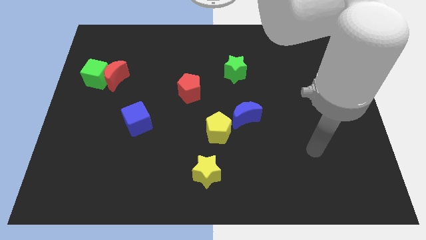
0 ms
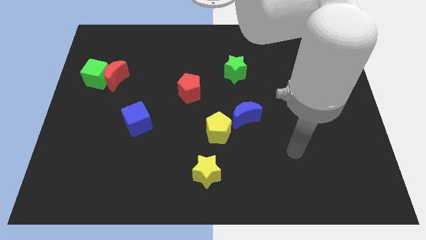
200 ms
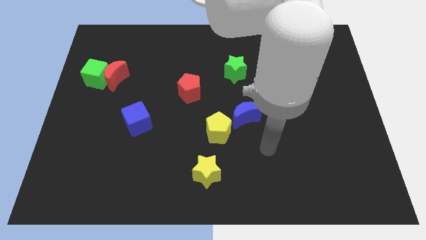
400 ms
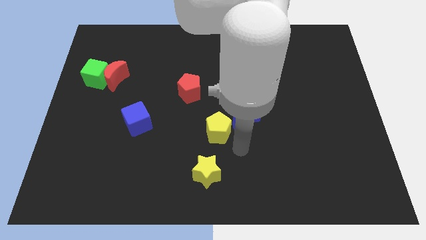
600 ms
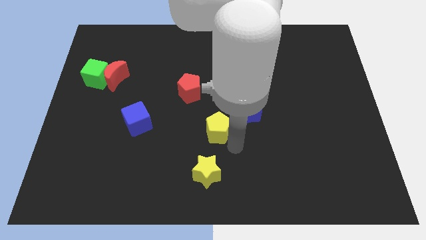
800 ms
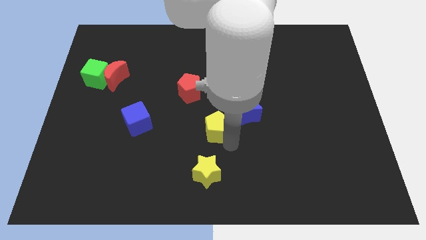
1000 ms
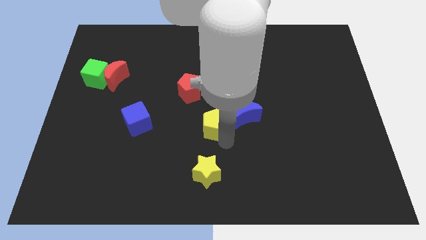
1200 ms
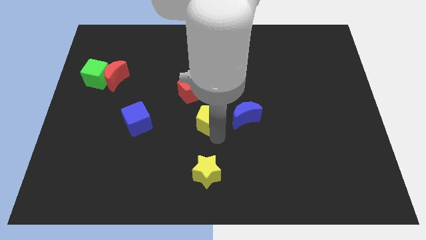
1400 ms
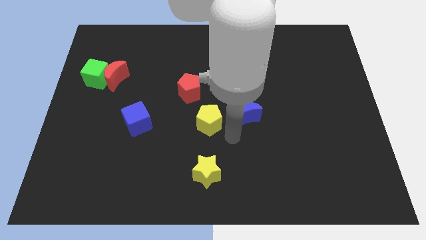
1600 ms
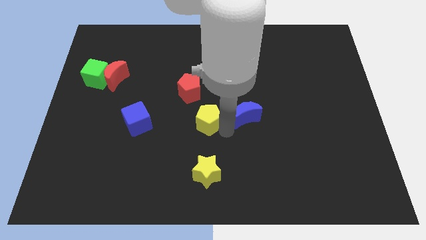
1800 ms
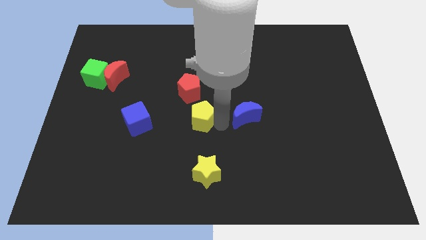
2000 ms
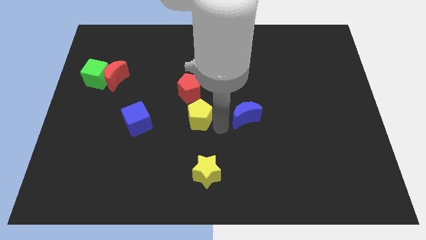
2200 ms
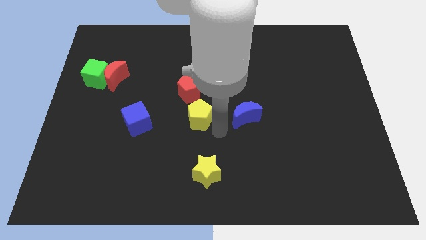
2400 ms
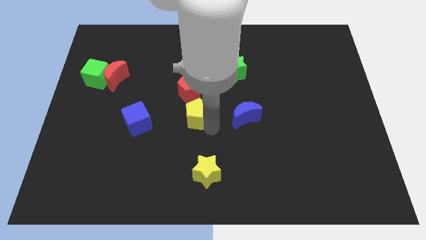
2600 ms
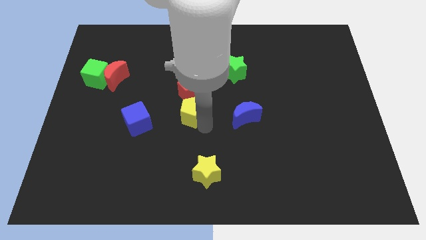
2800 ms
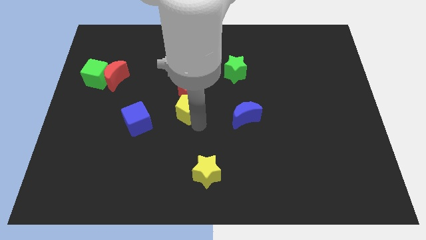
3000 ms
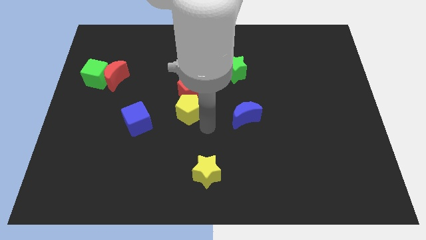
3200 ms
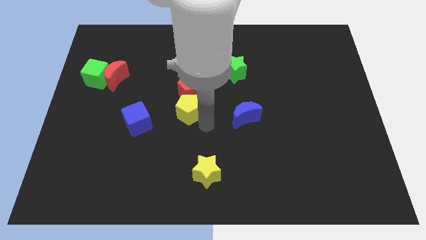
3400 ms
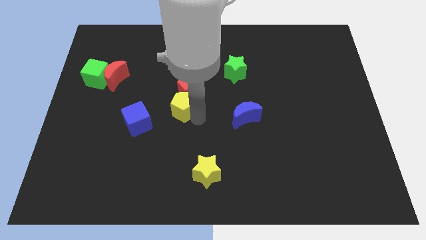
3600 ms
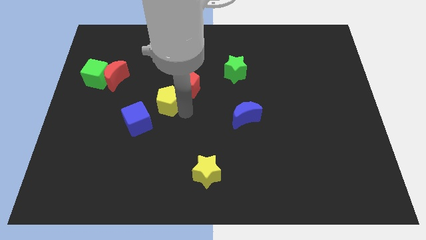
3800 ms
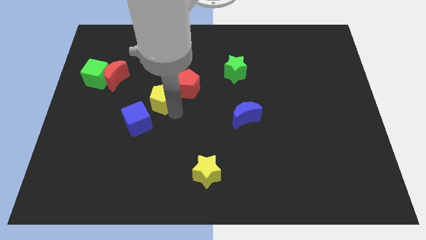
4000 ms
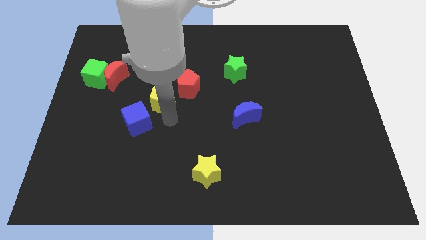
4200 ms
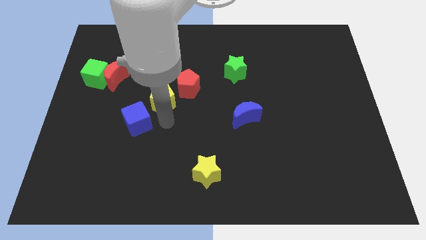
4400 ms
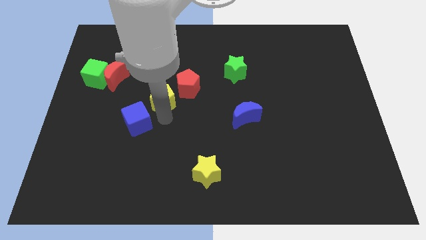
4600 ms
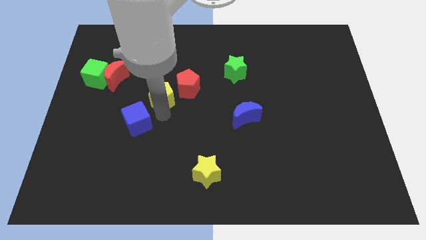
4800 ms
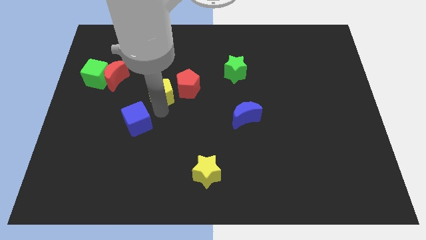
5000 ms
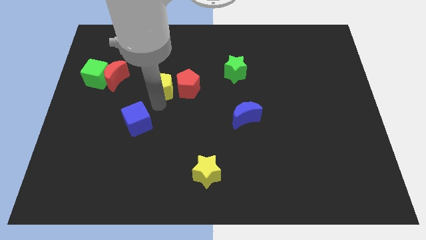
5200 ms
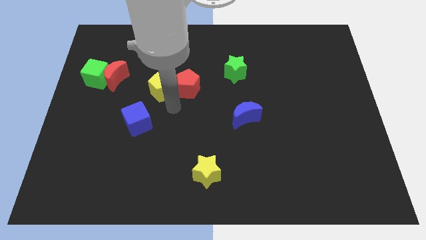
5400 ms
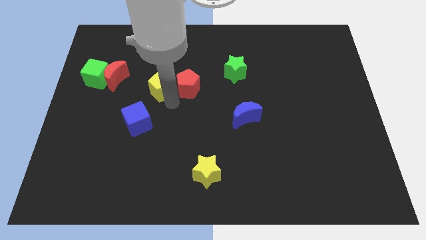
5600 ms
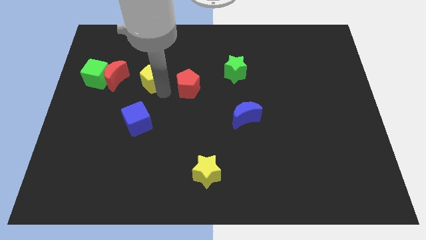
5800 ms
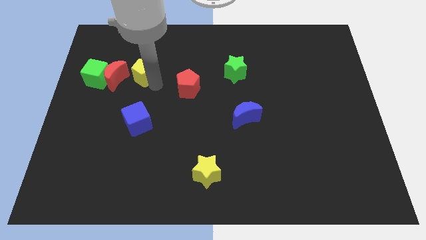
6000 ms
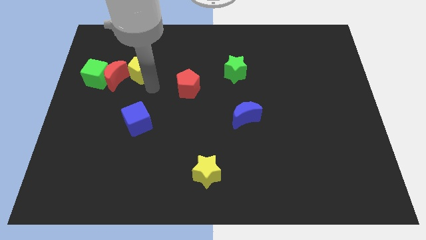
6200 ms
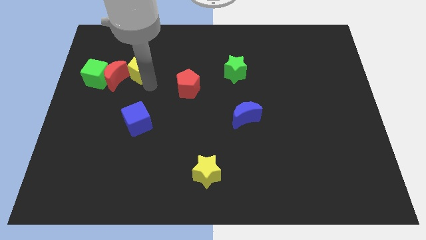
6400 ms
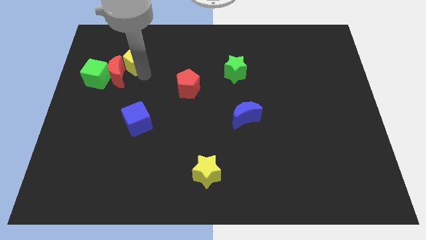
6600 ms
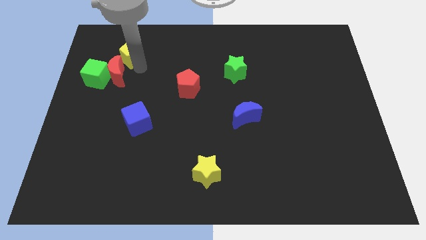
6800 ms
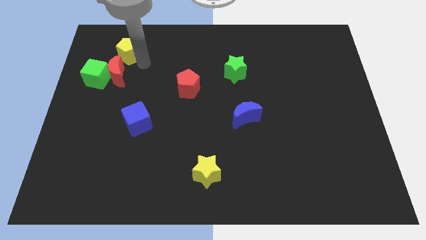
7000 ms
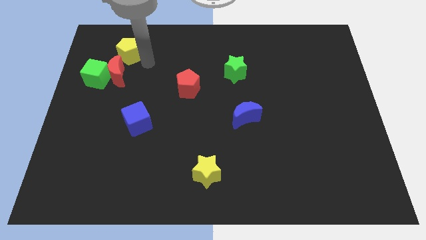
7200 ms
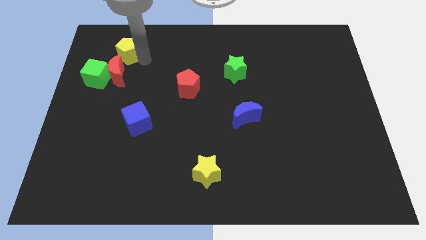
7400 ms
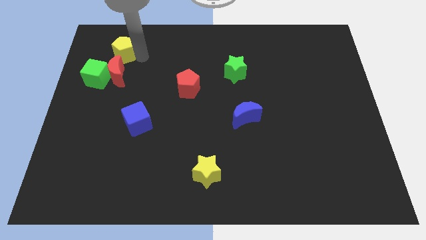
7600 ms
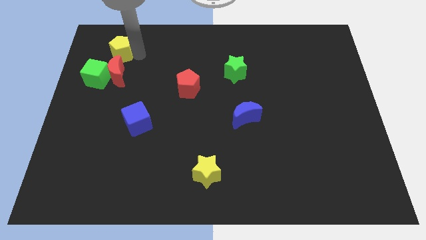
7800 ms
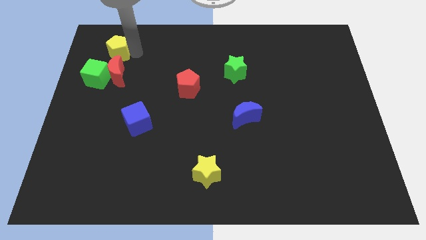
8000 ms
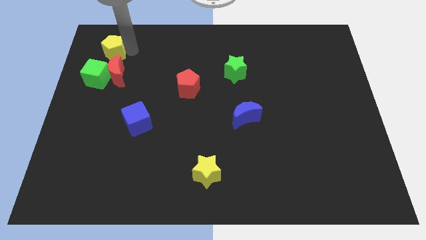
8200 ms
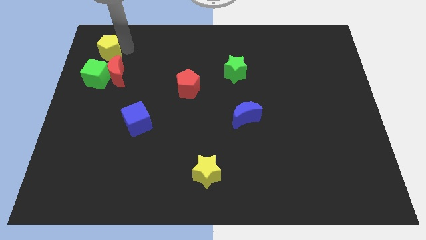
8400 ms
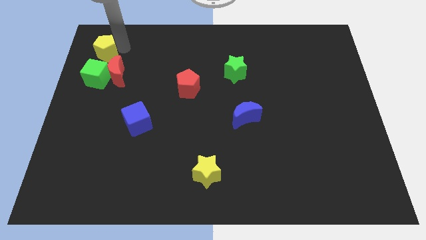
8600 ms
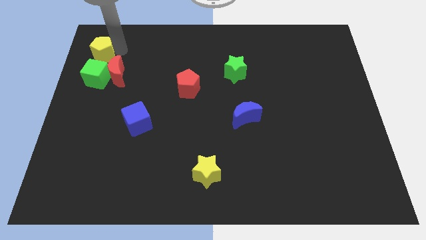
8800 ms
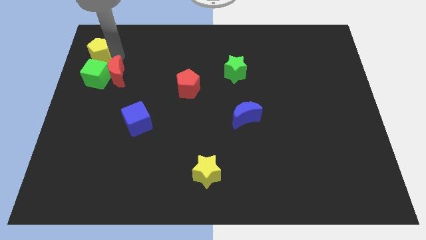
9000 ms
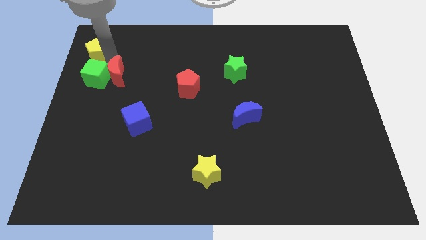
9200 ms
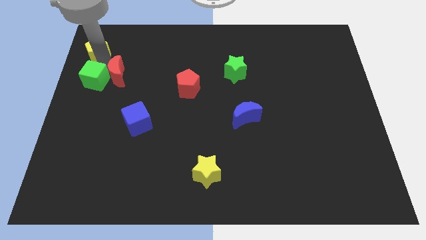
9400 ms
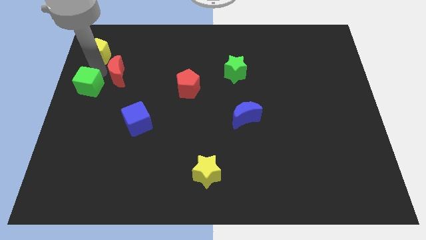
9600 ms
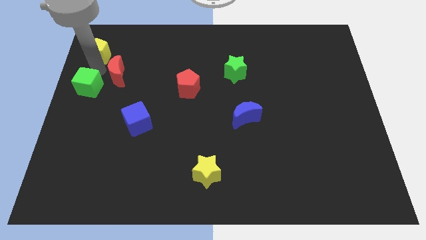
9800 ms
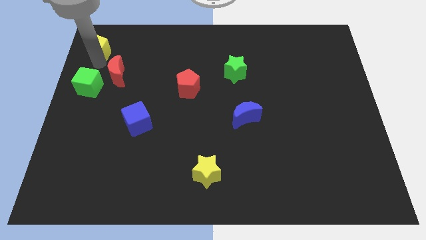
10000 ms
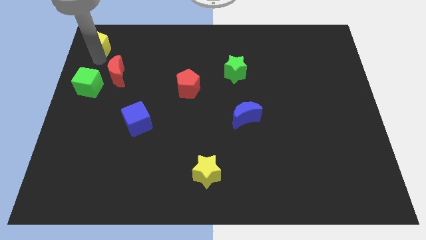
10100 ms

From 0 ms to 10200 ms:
push the yellow pentagon to the top left

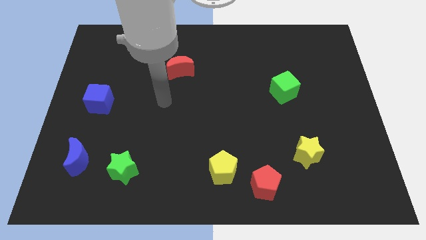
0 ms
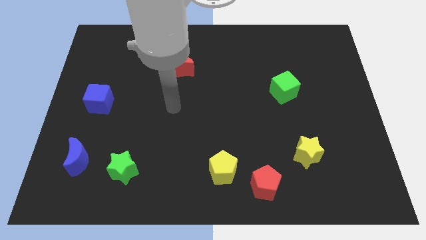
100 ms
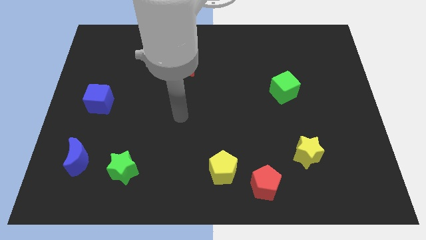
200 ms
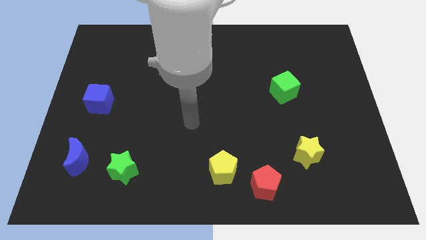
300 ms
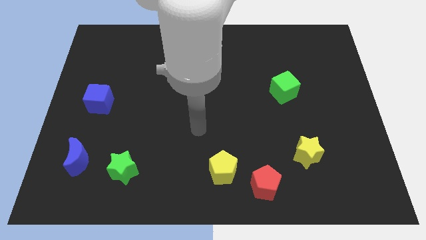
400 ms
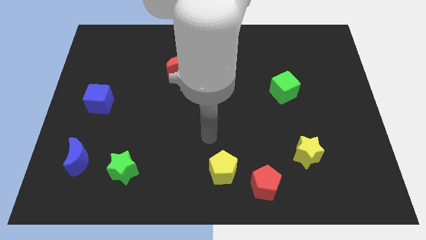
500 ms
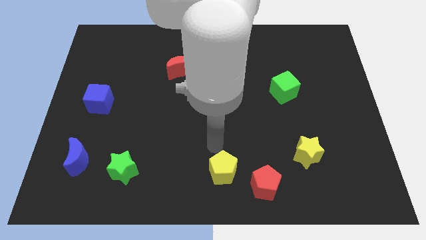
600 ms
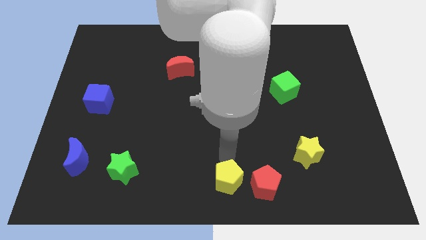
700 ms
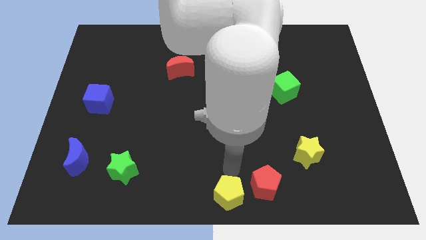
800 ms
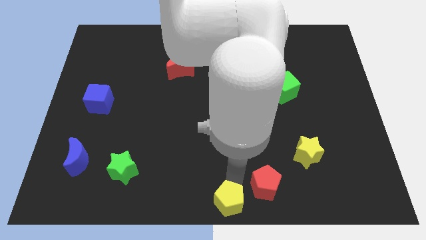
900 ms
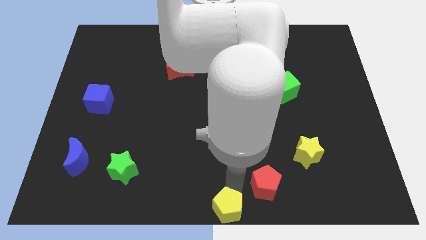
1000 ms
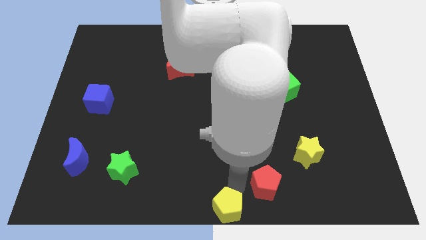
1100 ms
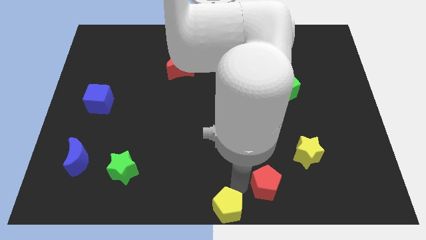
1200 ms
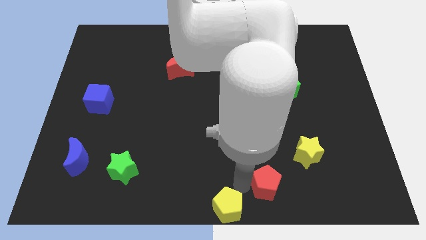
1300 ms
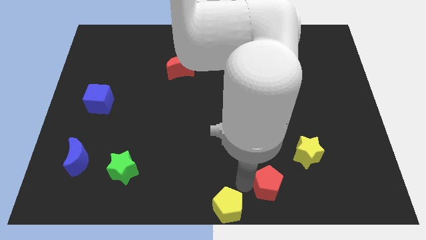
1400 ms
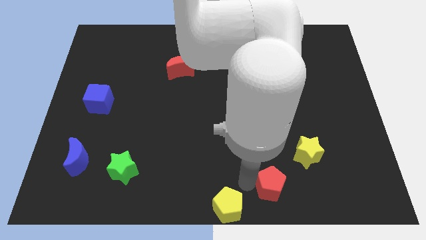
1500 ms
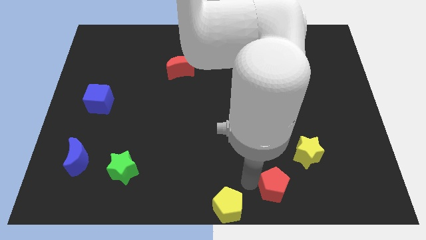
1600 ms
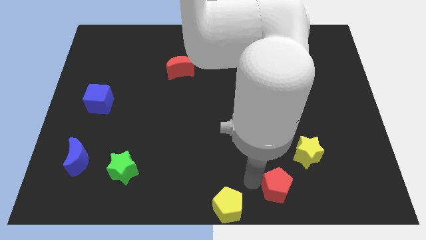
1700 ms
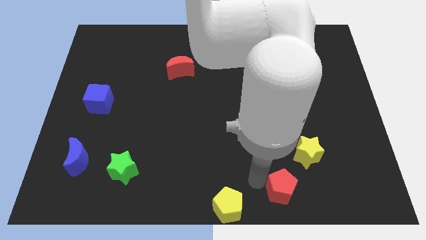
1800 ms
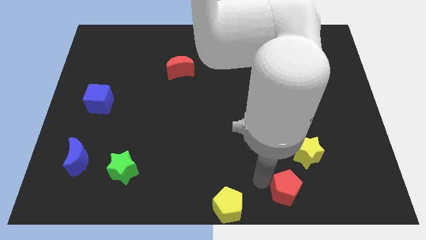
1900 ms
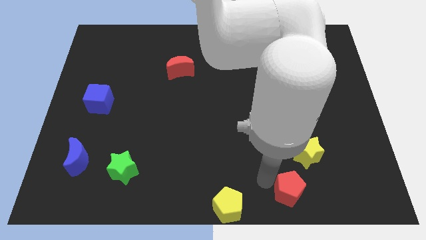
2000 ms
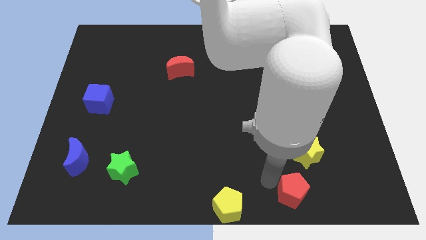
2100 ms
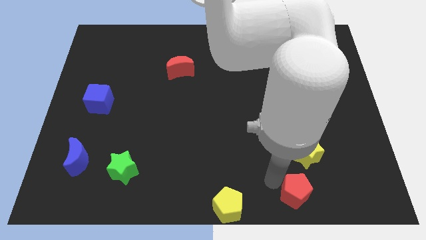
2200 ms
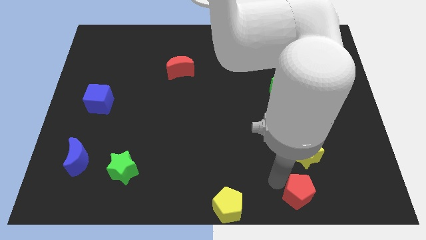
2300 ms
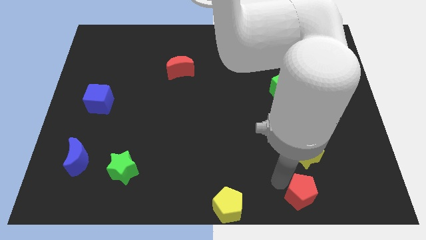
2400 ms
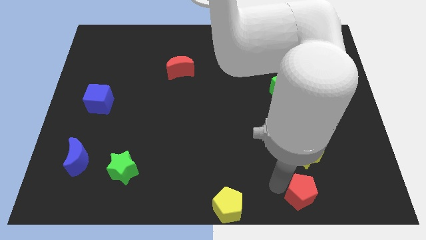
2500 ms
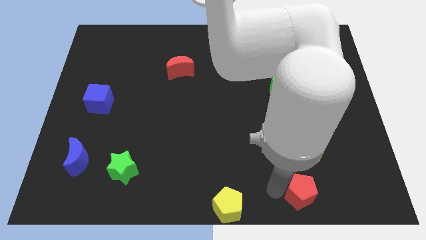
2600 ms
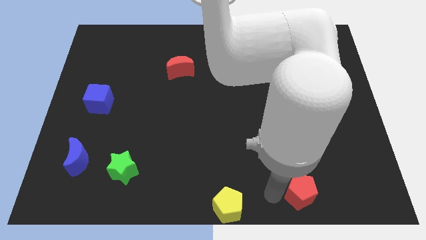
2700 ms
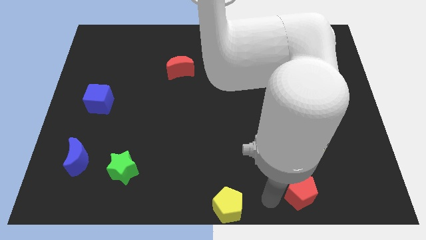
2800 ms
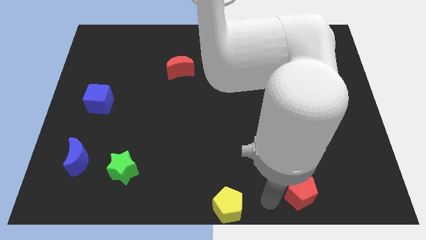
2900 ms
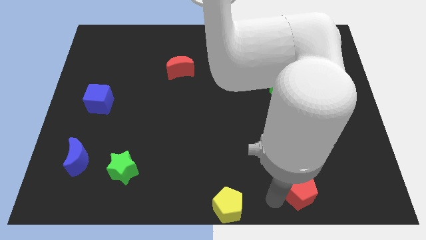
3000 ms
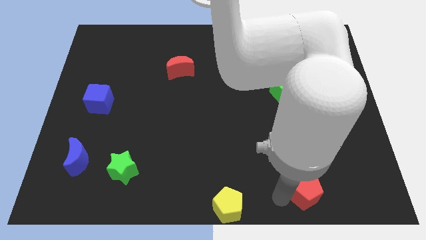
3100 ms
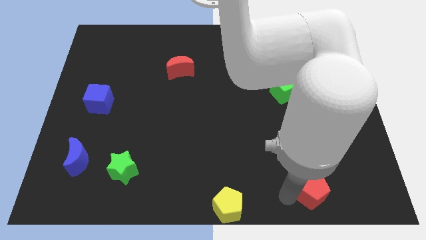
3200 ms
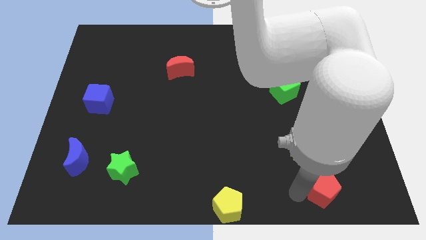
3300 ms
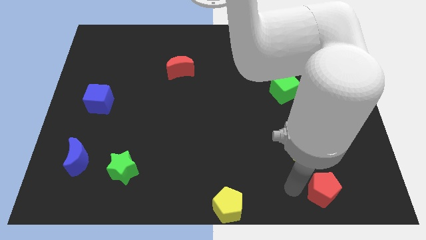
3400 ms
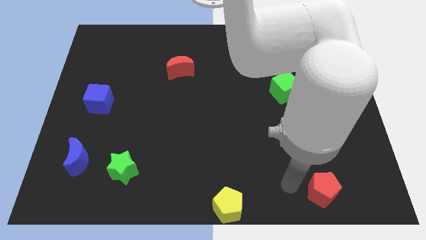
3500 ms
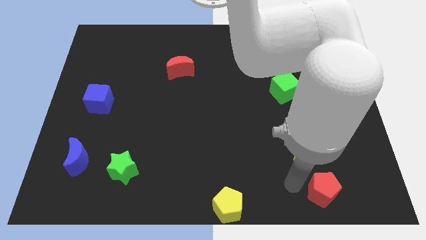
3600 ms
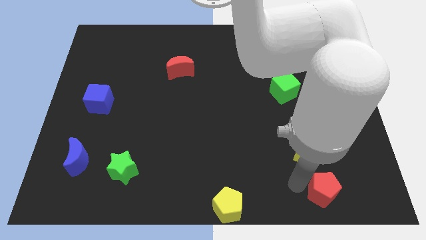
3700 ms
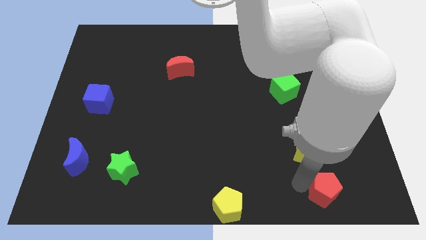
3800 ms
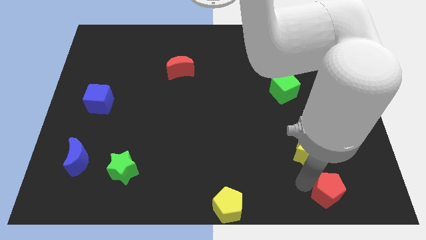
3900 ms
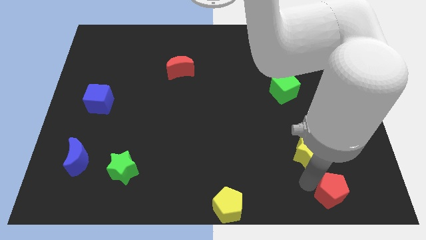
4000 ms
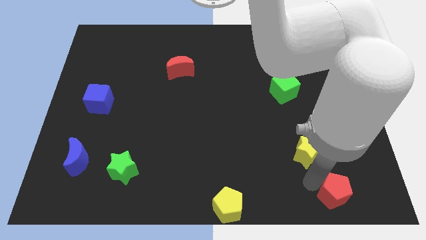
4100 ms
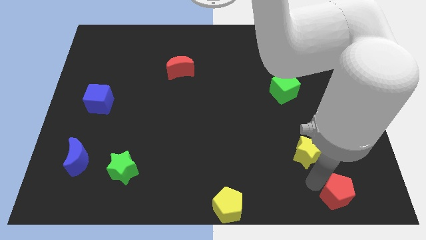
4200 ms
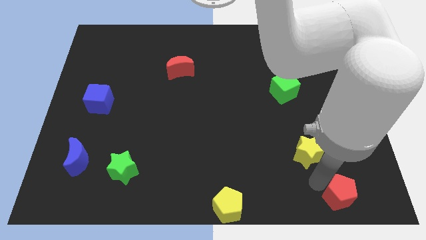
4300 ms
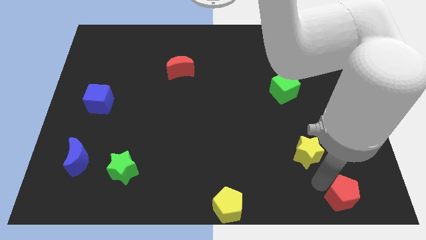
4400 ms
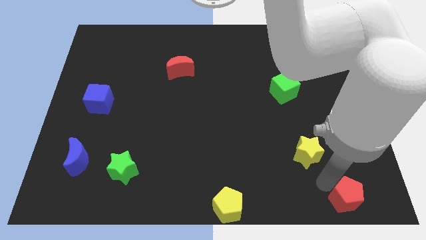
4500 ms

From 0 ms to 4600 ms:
move the red pentagon to the lower right corner
